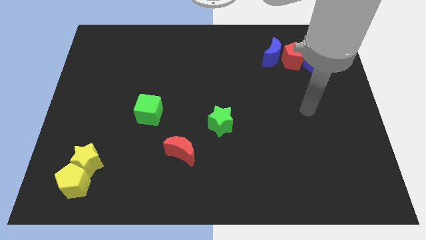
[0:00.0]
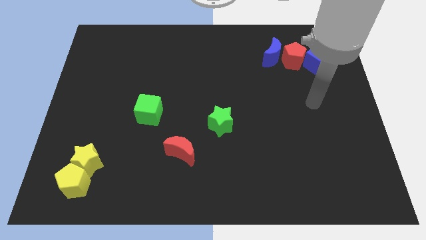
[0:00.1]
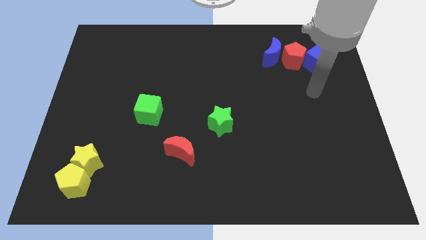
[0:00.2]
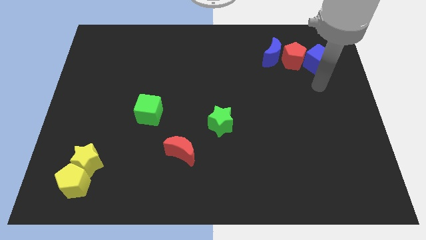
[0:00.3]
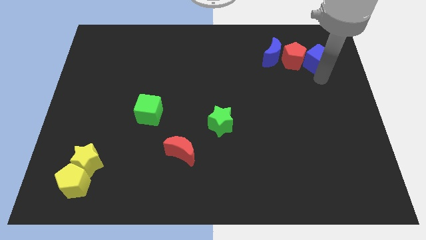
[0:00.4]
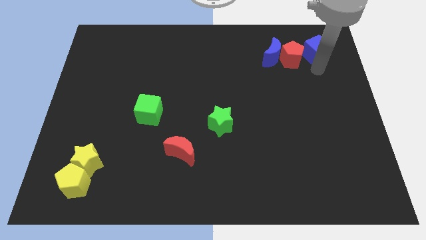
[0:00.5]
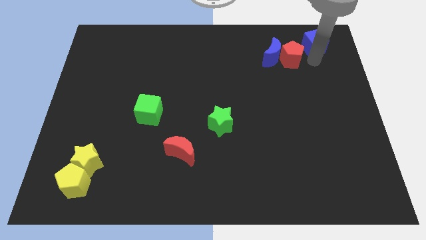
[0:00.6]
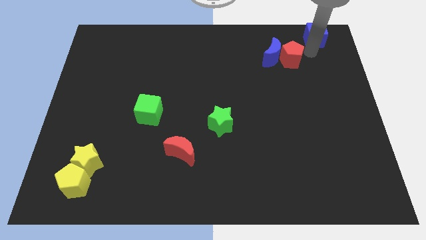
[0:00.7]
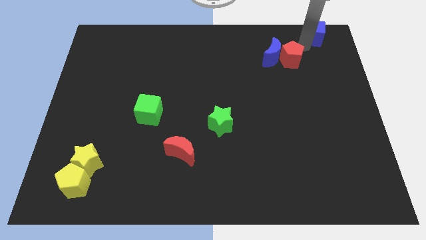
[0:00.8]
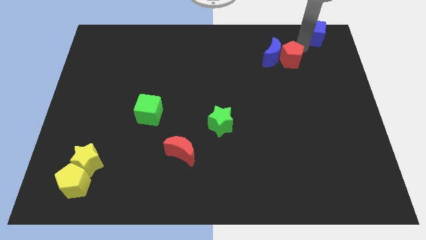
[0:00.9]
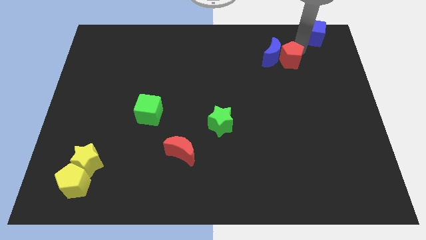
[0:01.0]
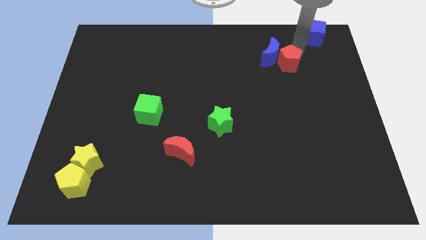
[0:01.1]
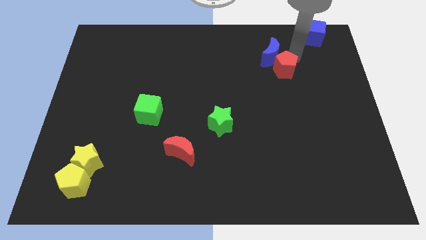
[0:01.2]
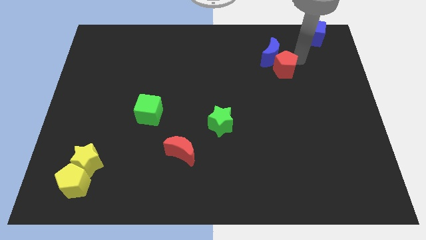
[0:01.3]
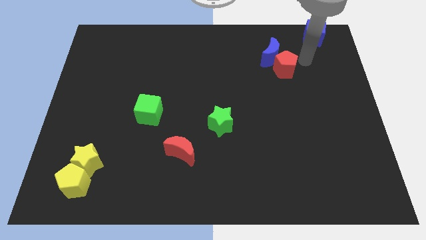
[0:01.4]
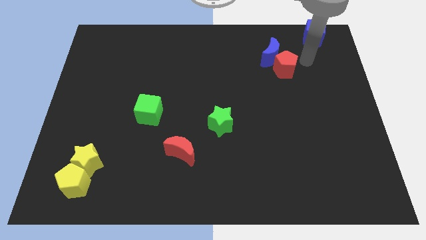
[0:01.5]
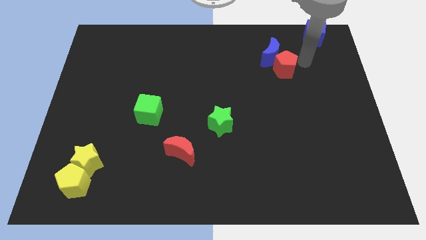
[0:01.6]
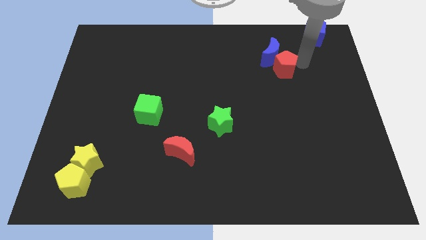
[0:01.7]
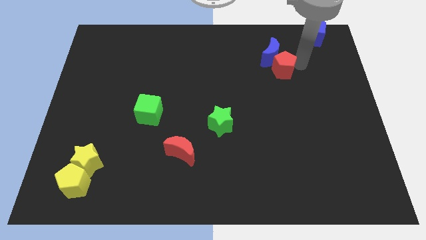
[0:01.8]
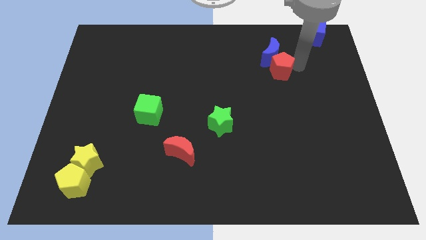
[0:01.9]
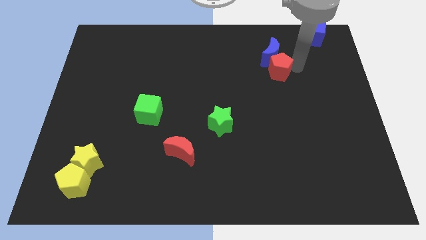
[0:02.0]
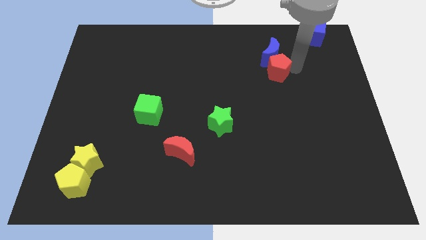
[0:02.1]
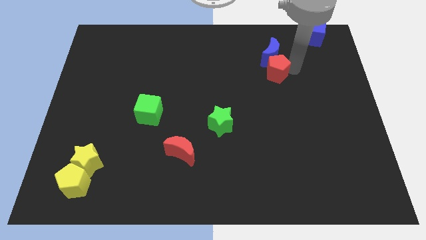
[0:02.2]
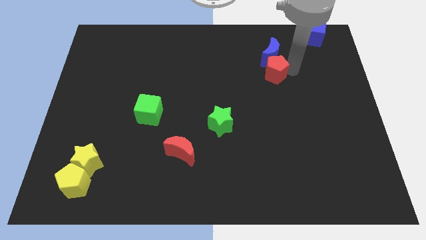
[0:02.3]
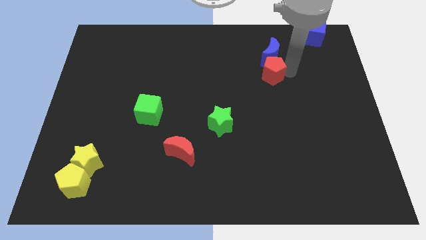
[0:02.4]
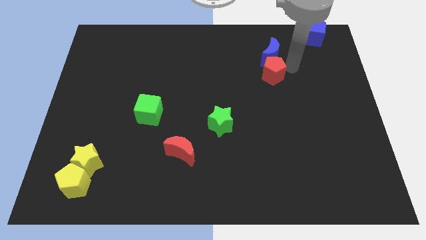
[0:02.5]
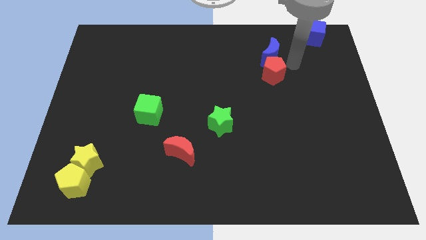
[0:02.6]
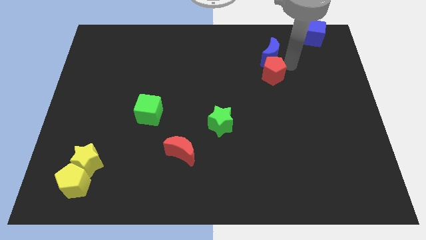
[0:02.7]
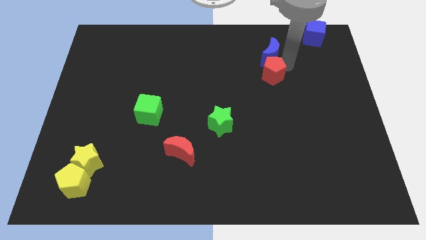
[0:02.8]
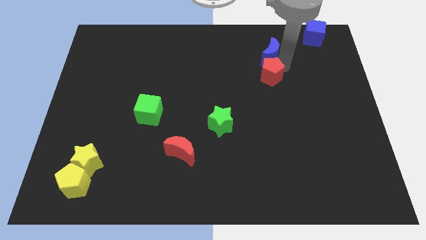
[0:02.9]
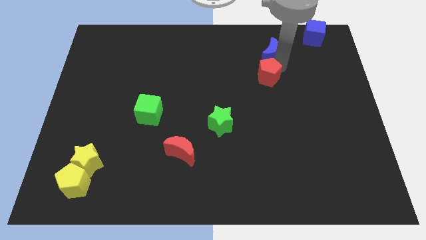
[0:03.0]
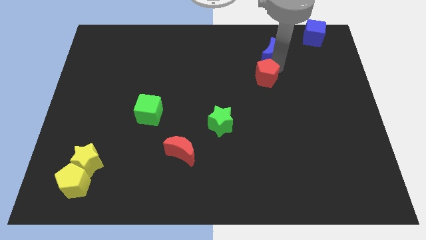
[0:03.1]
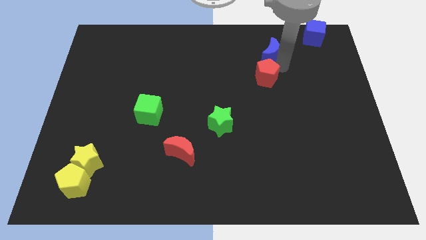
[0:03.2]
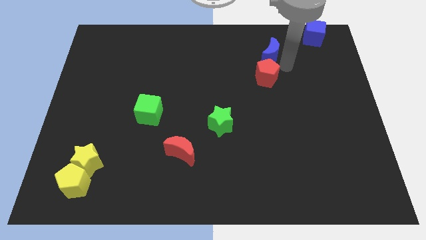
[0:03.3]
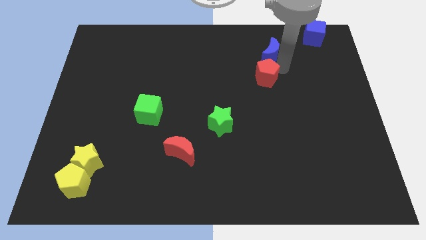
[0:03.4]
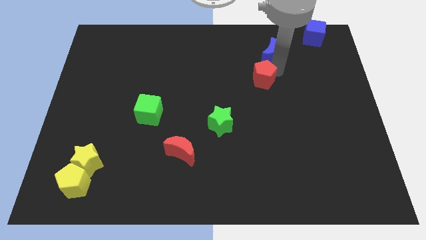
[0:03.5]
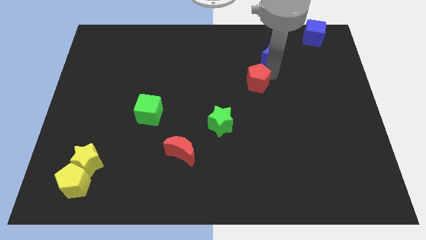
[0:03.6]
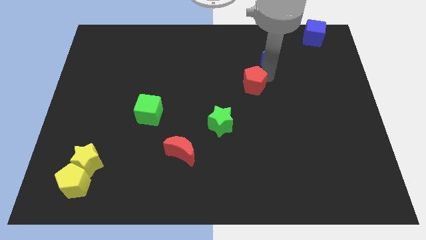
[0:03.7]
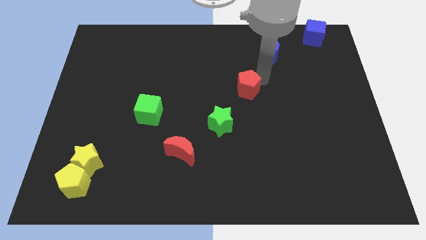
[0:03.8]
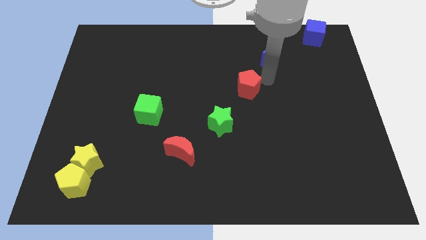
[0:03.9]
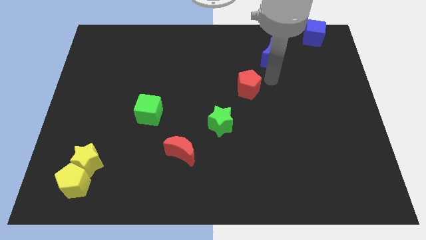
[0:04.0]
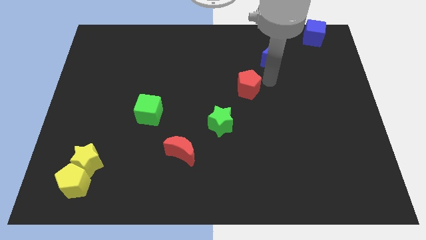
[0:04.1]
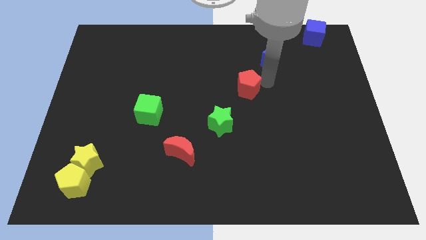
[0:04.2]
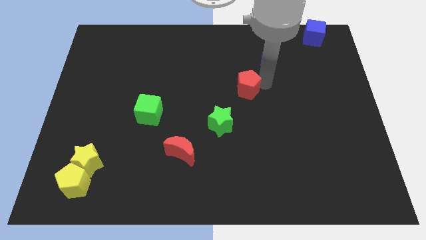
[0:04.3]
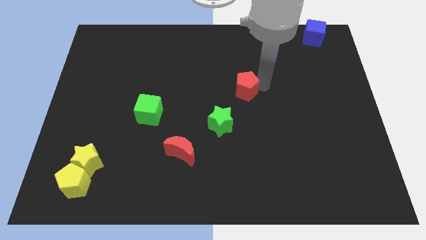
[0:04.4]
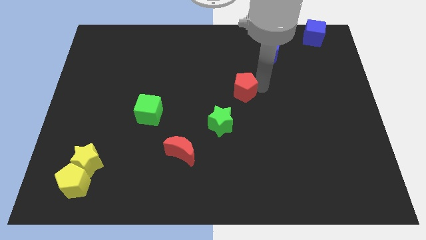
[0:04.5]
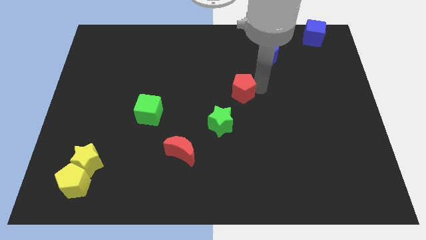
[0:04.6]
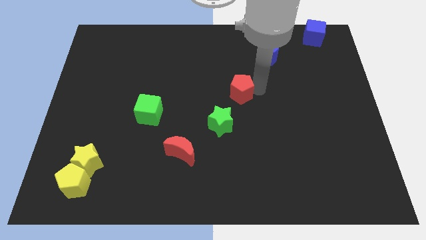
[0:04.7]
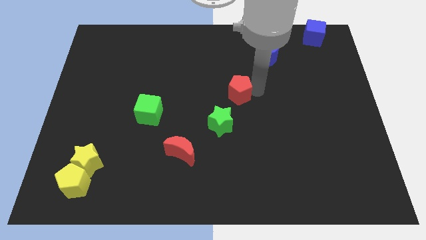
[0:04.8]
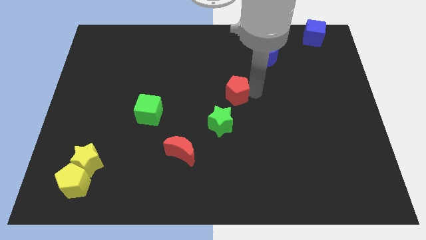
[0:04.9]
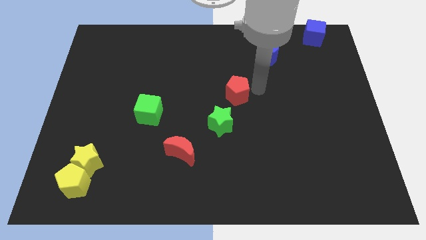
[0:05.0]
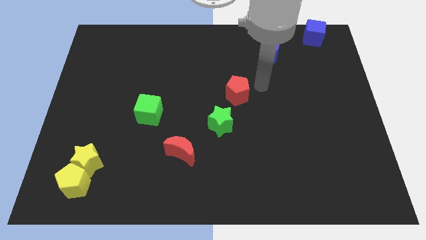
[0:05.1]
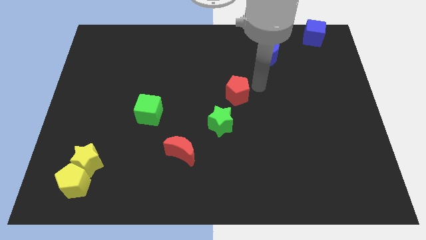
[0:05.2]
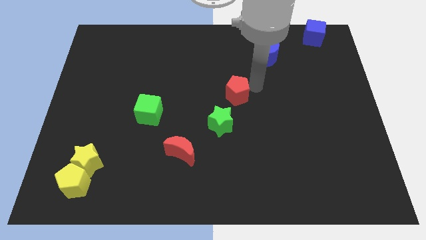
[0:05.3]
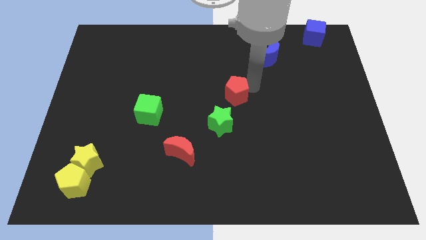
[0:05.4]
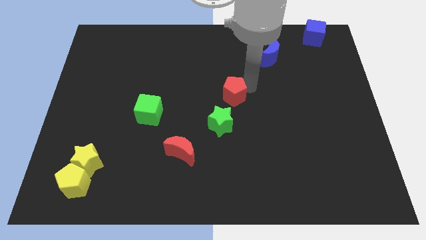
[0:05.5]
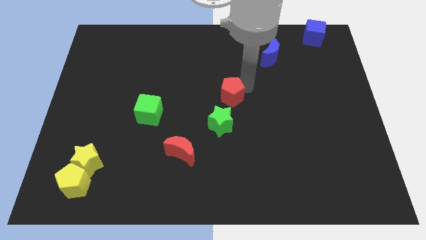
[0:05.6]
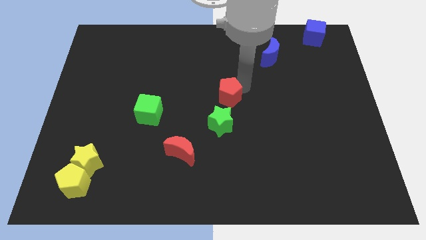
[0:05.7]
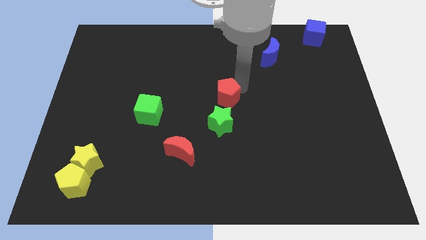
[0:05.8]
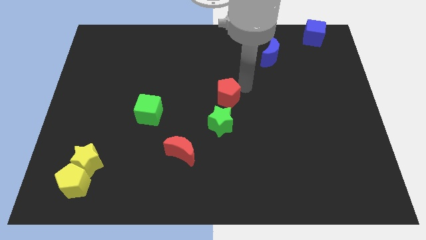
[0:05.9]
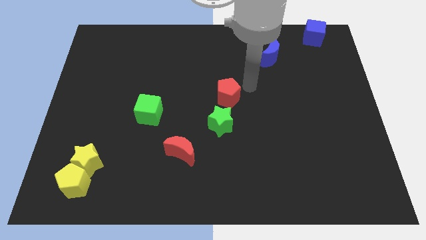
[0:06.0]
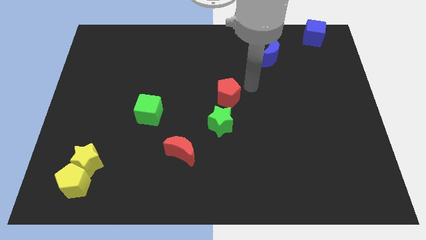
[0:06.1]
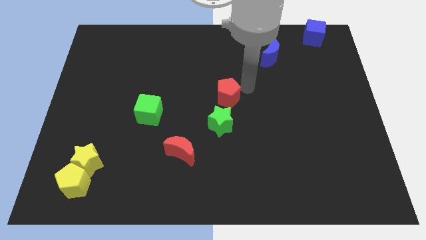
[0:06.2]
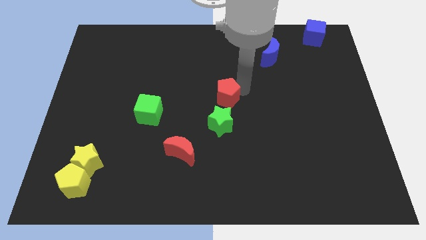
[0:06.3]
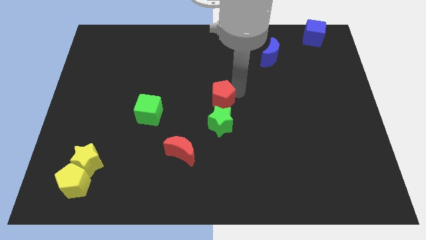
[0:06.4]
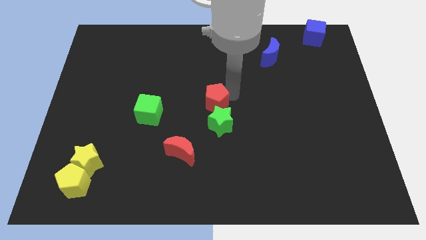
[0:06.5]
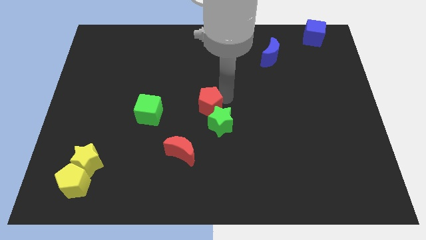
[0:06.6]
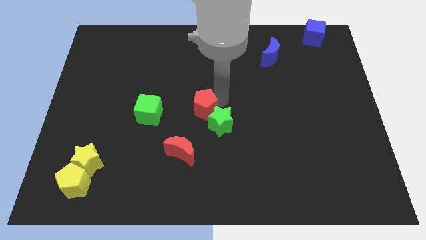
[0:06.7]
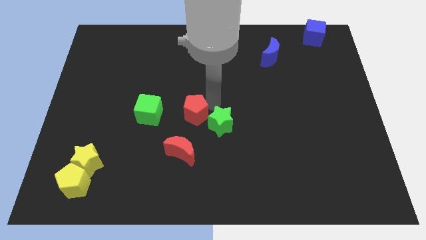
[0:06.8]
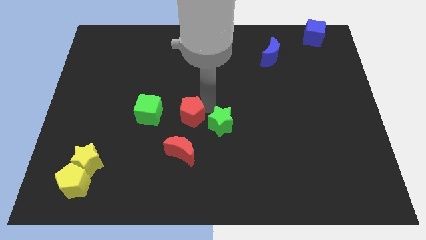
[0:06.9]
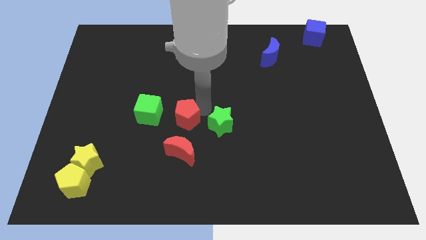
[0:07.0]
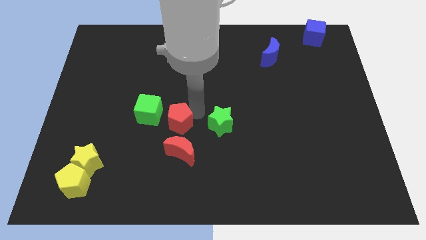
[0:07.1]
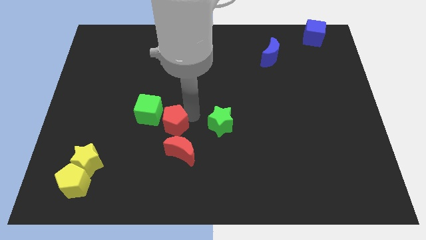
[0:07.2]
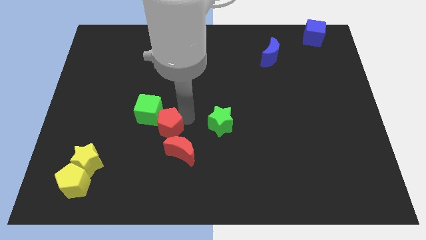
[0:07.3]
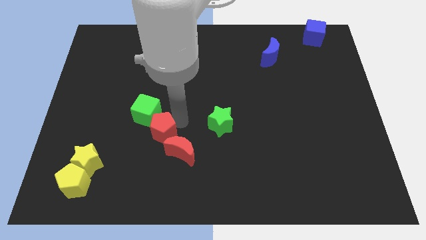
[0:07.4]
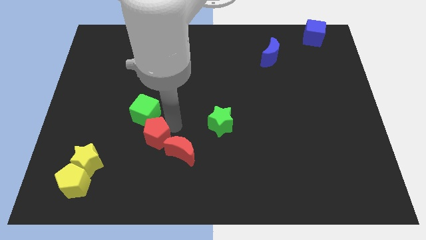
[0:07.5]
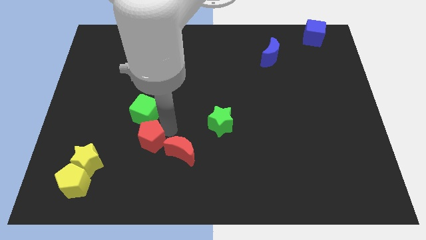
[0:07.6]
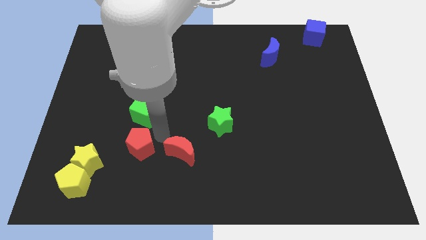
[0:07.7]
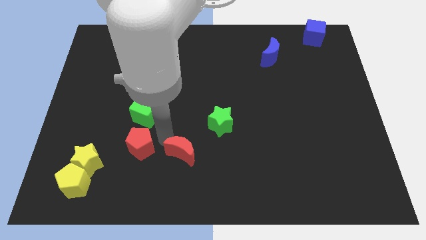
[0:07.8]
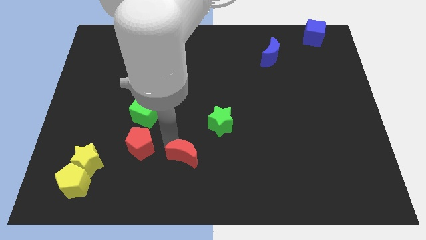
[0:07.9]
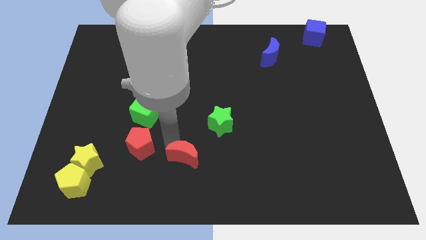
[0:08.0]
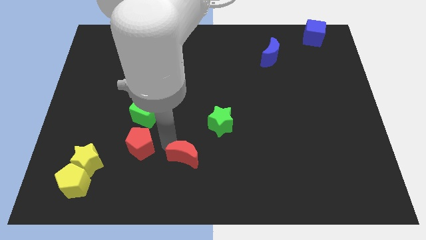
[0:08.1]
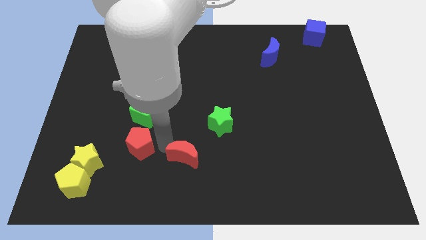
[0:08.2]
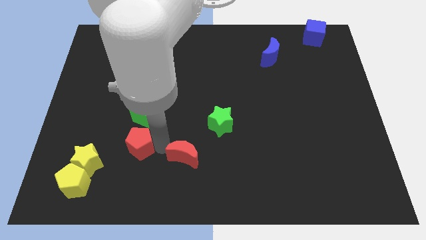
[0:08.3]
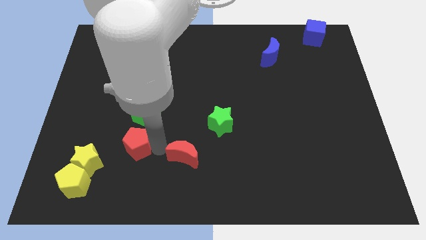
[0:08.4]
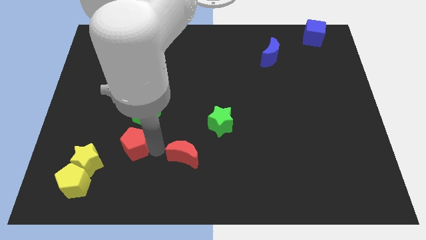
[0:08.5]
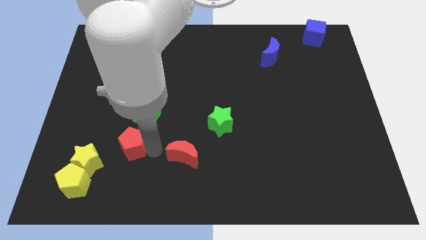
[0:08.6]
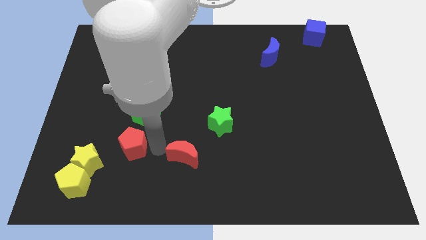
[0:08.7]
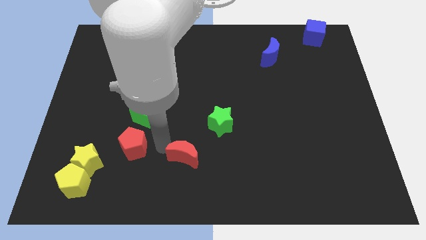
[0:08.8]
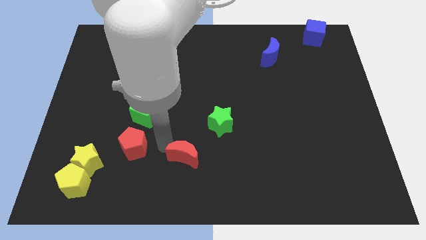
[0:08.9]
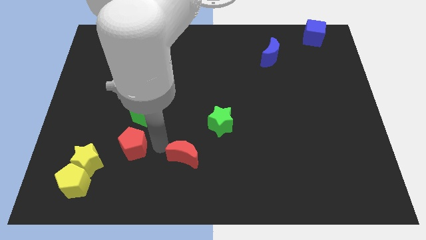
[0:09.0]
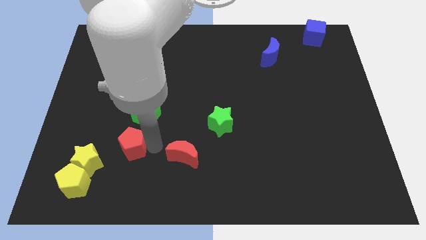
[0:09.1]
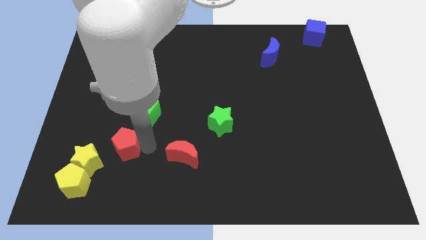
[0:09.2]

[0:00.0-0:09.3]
put the red pentagon to the top right side of the yellow pentagon
